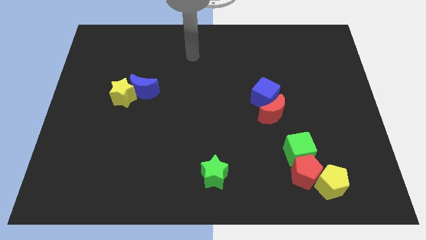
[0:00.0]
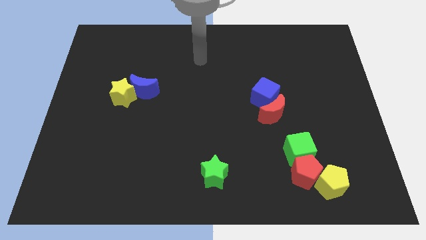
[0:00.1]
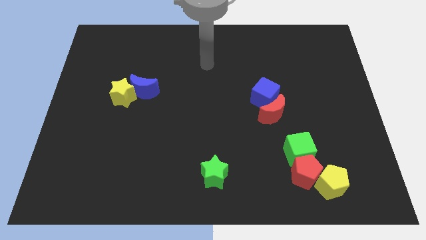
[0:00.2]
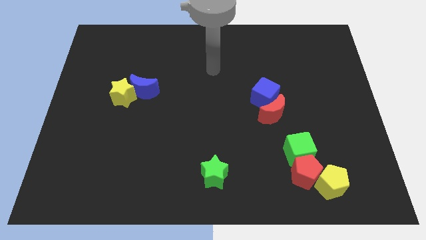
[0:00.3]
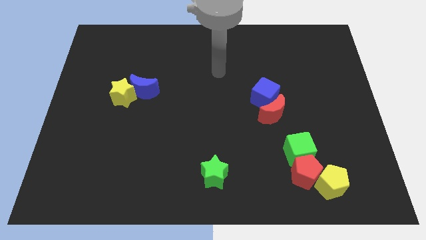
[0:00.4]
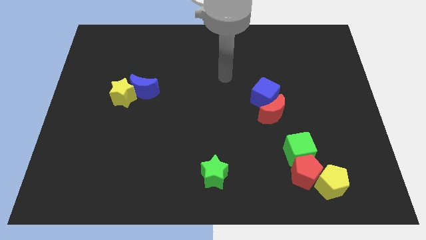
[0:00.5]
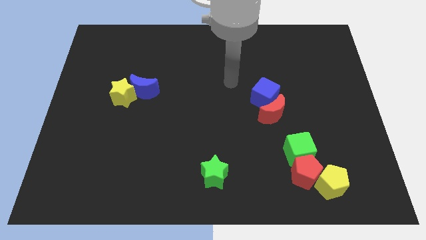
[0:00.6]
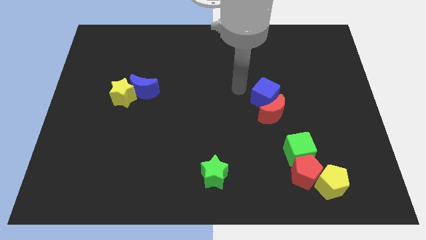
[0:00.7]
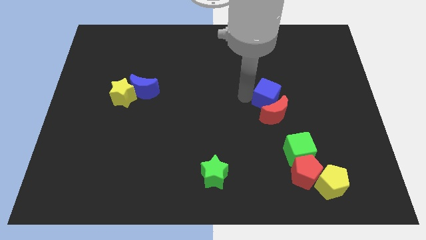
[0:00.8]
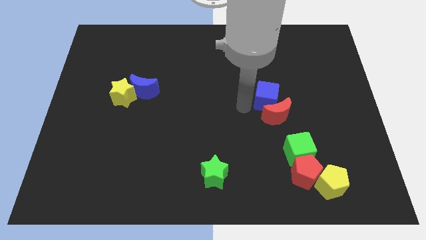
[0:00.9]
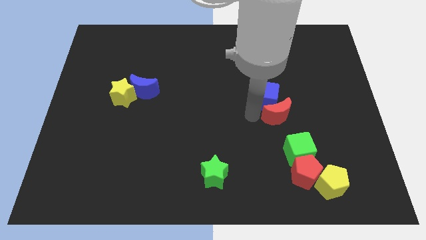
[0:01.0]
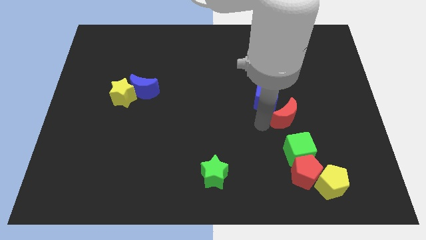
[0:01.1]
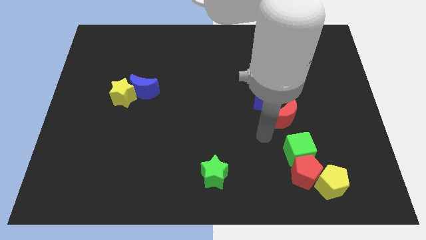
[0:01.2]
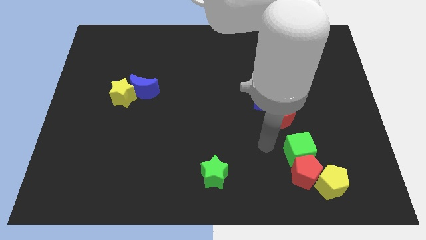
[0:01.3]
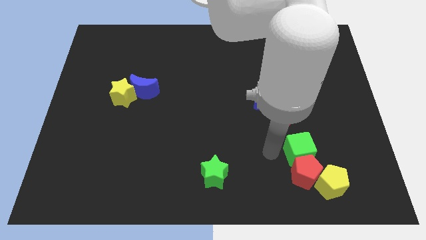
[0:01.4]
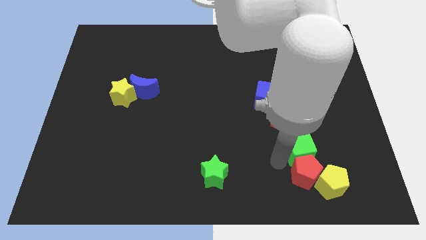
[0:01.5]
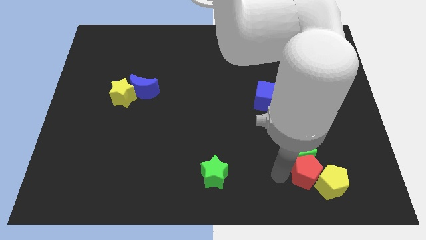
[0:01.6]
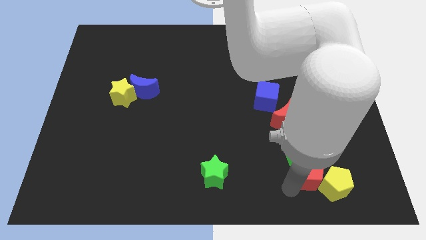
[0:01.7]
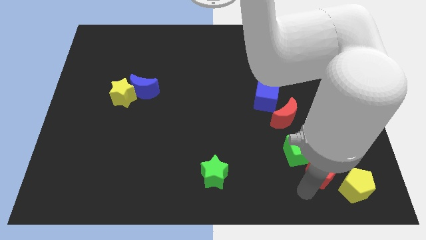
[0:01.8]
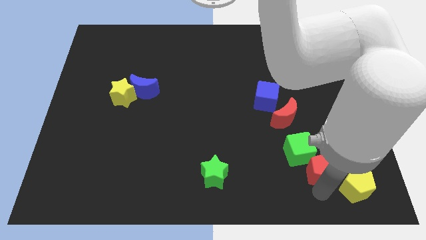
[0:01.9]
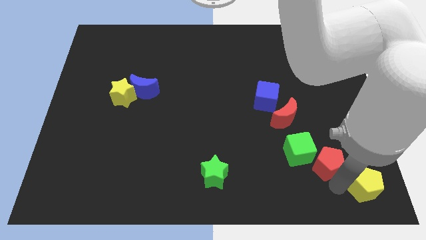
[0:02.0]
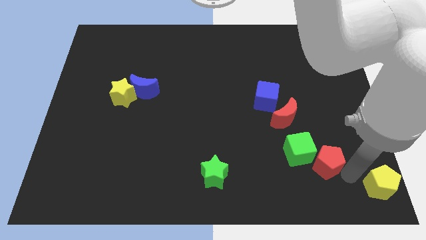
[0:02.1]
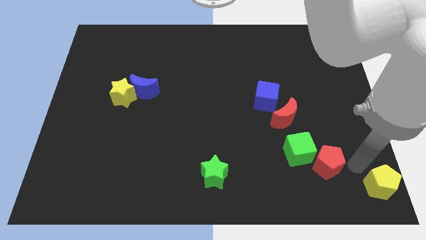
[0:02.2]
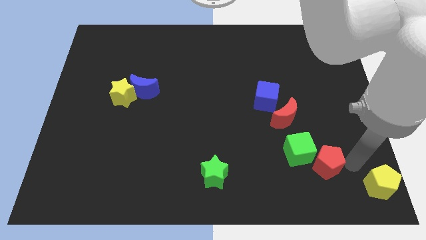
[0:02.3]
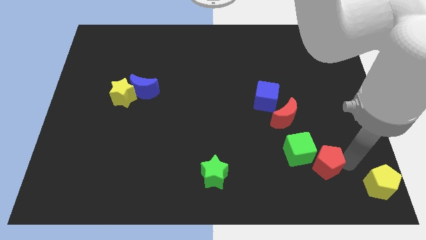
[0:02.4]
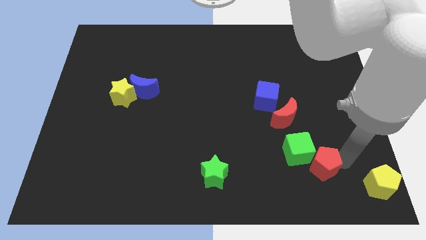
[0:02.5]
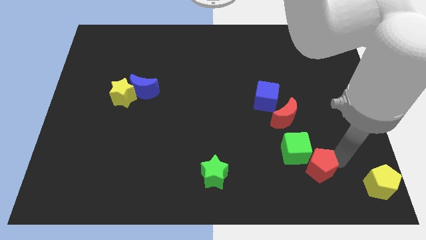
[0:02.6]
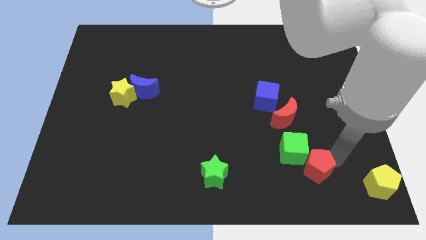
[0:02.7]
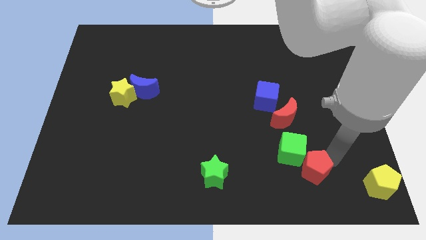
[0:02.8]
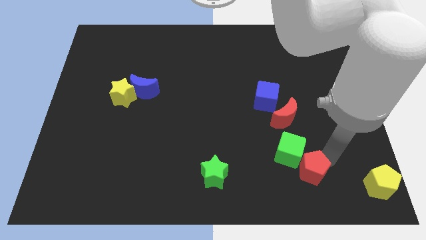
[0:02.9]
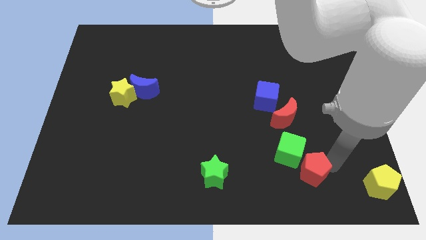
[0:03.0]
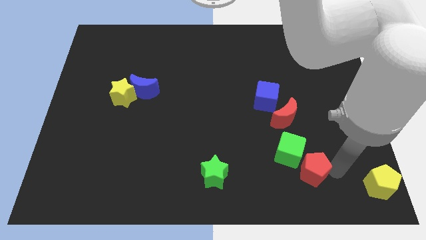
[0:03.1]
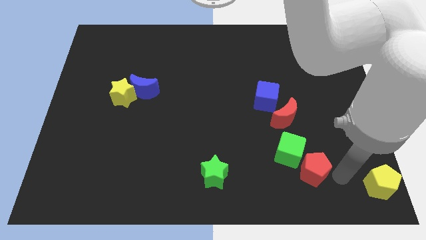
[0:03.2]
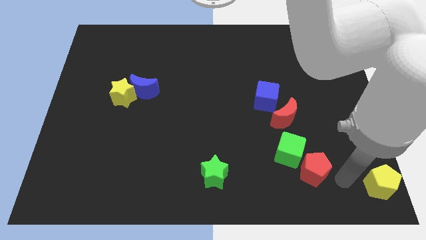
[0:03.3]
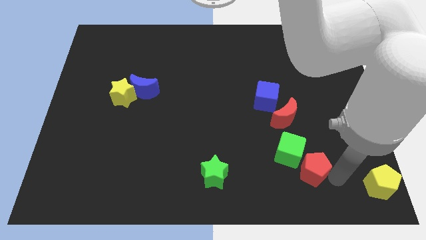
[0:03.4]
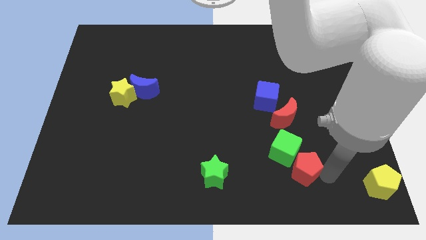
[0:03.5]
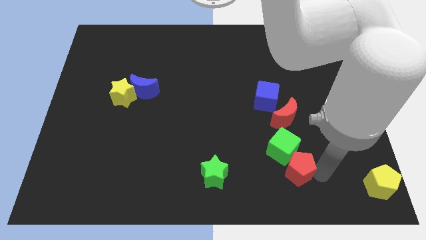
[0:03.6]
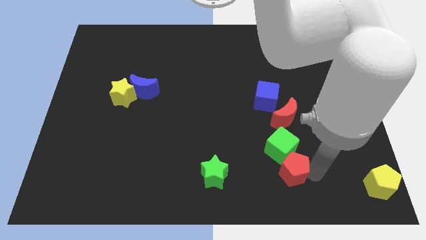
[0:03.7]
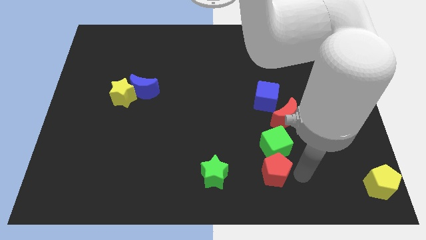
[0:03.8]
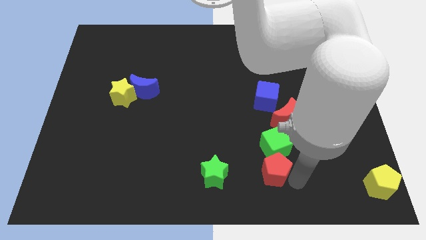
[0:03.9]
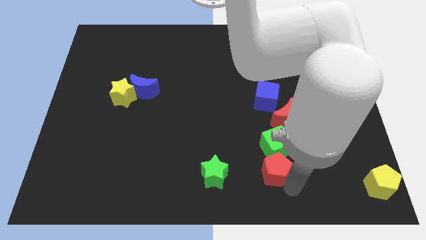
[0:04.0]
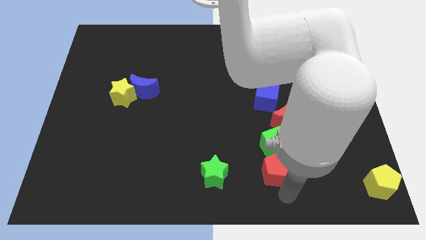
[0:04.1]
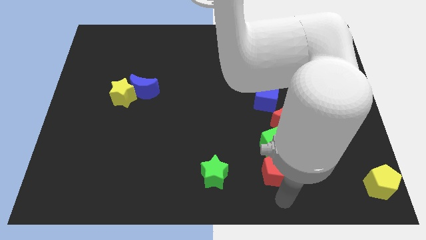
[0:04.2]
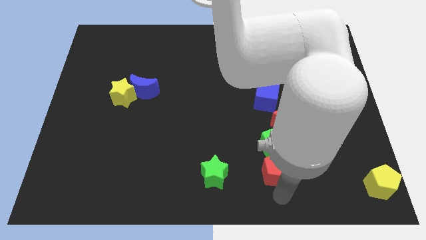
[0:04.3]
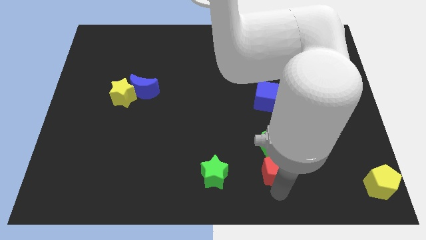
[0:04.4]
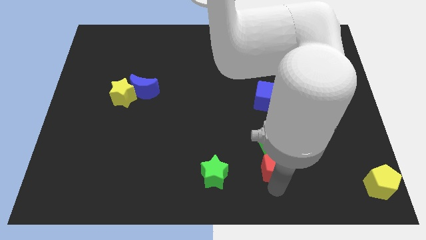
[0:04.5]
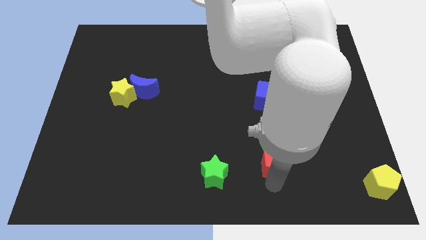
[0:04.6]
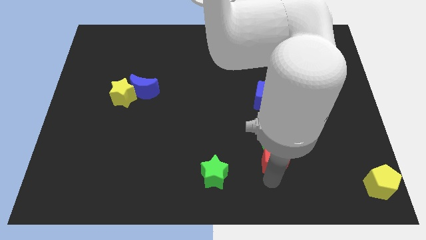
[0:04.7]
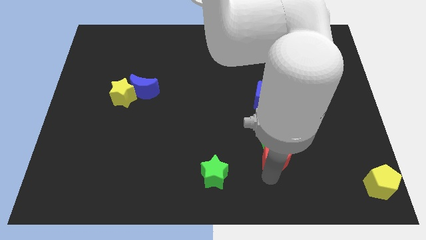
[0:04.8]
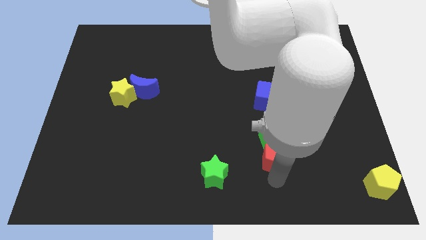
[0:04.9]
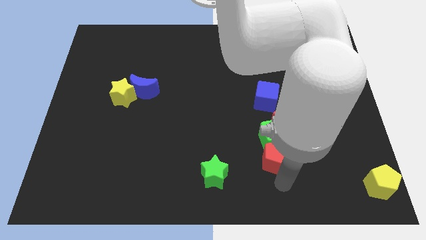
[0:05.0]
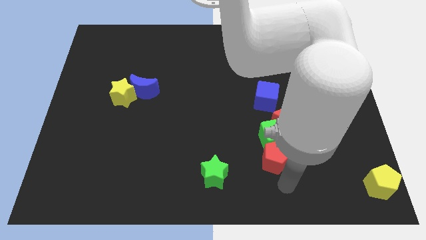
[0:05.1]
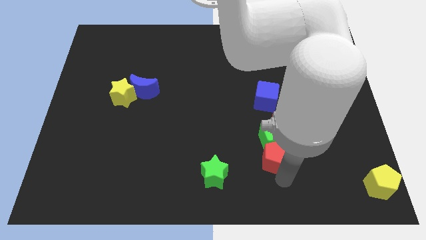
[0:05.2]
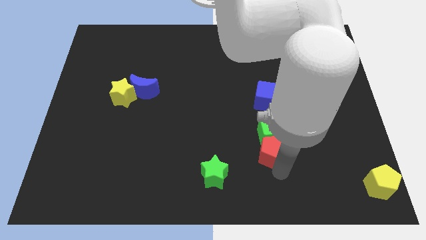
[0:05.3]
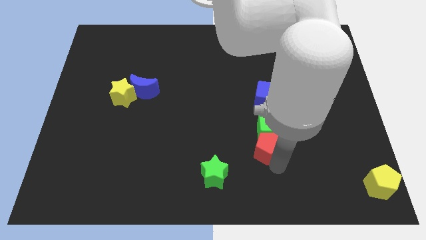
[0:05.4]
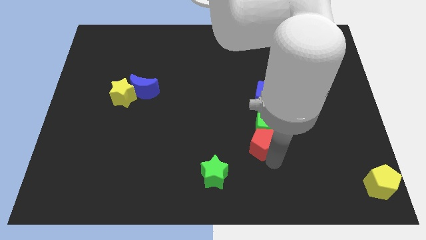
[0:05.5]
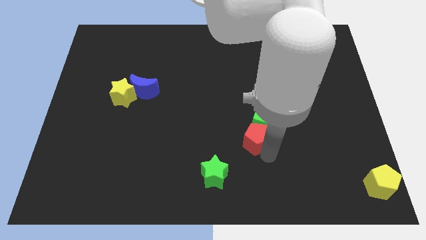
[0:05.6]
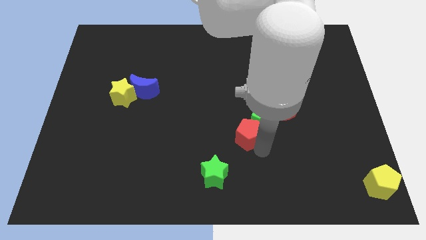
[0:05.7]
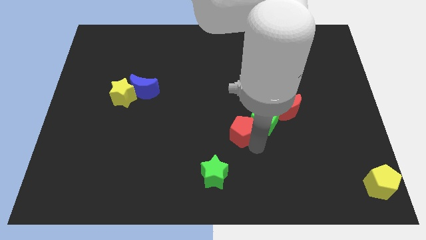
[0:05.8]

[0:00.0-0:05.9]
slide the red pentagon to the center

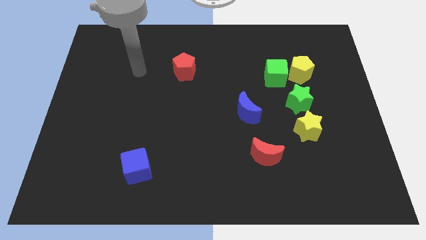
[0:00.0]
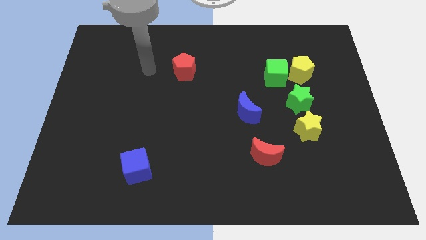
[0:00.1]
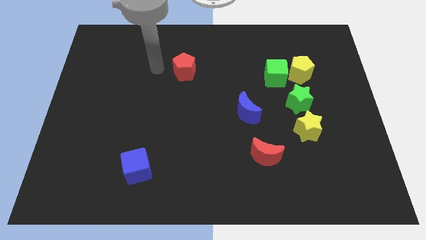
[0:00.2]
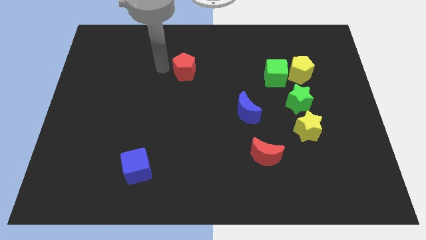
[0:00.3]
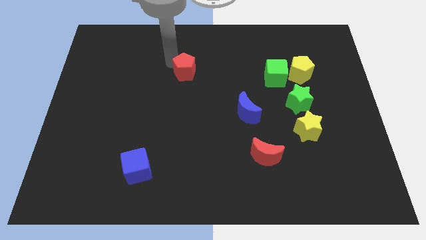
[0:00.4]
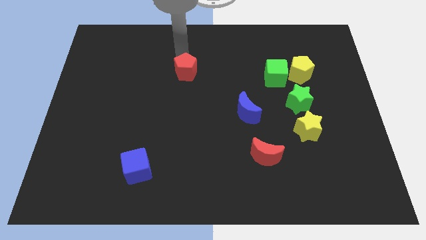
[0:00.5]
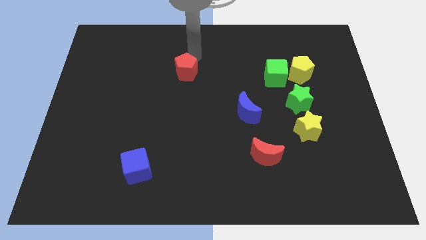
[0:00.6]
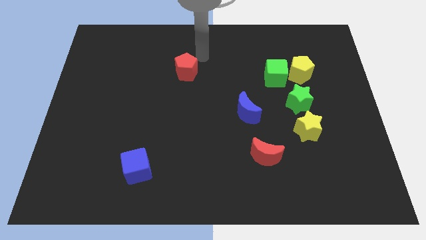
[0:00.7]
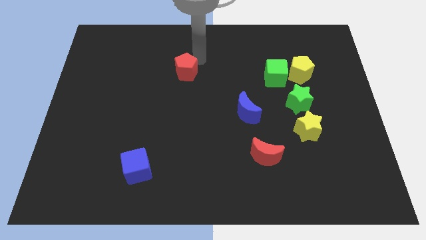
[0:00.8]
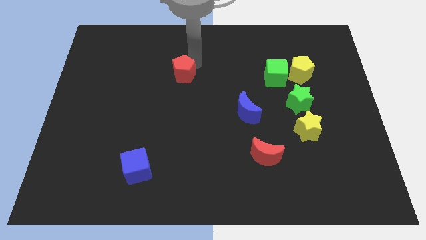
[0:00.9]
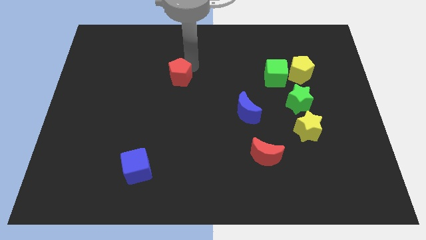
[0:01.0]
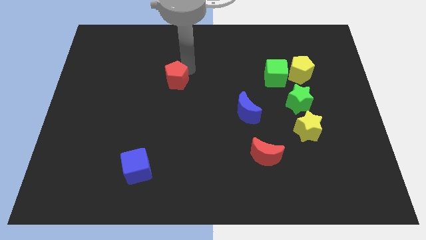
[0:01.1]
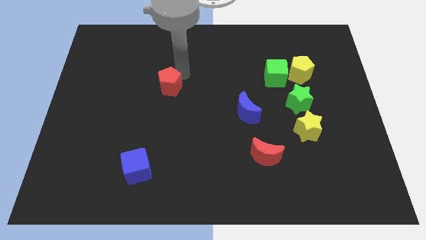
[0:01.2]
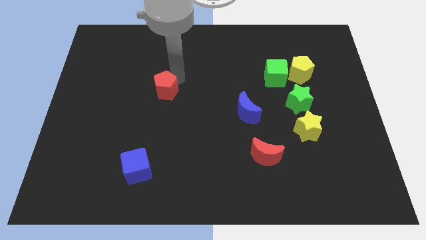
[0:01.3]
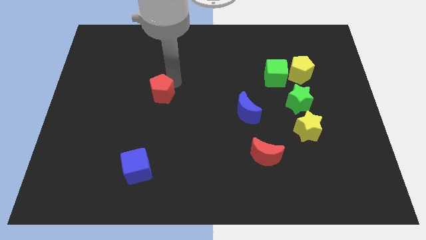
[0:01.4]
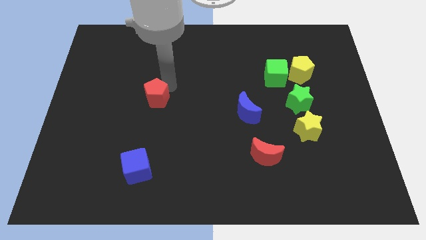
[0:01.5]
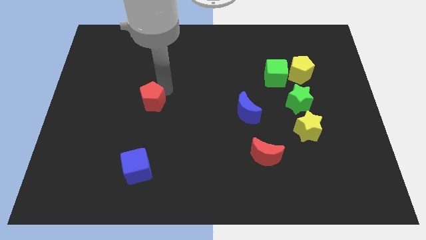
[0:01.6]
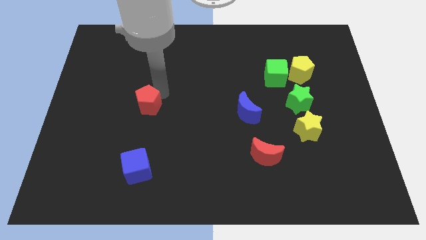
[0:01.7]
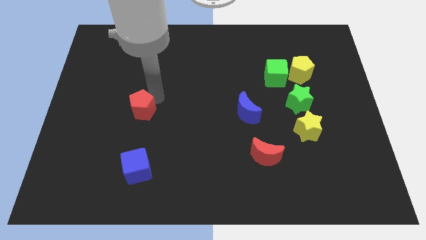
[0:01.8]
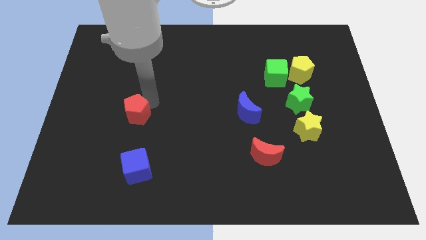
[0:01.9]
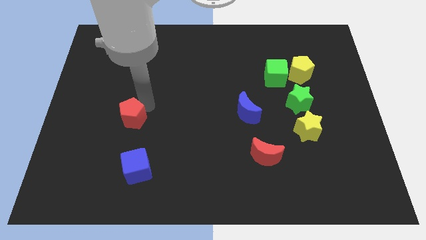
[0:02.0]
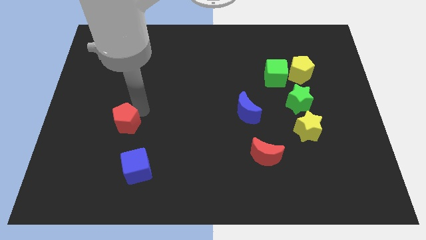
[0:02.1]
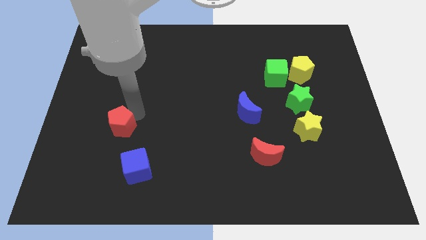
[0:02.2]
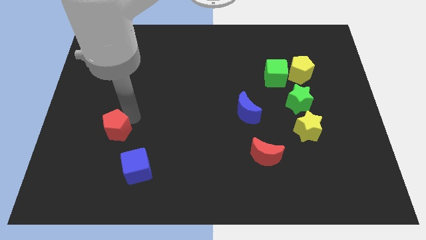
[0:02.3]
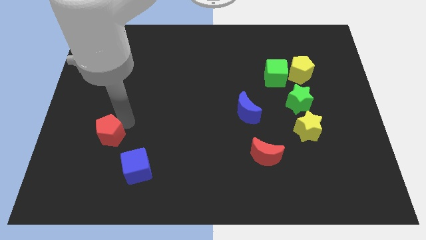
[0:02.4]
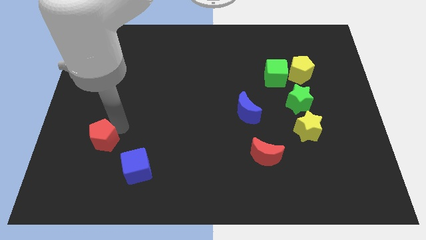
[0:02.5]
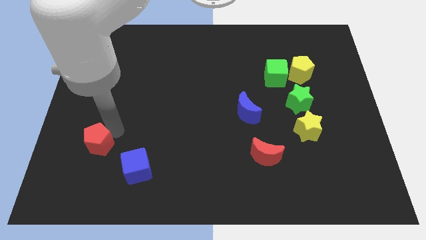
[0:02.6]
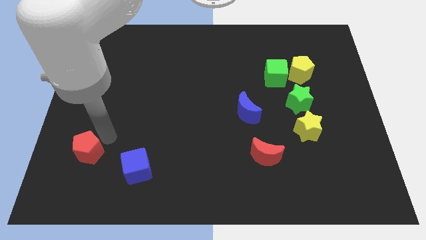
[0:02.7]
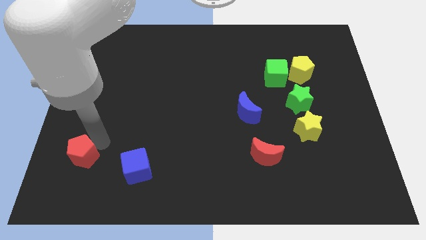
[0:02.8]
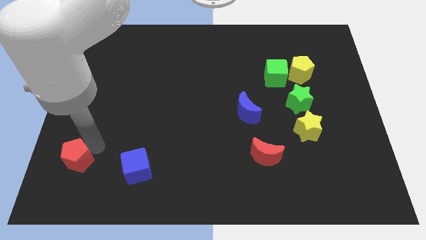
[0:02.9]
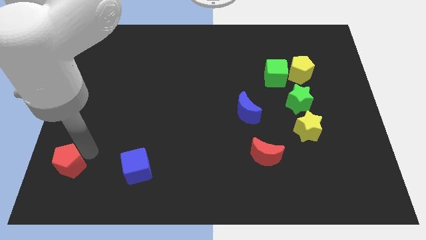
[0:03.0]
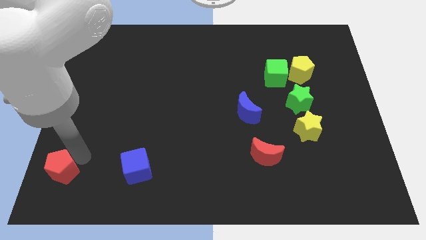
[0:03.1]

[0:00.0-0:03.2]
move the red pentagon to the bottom left corner
